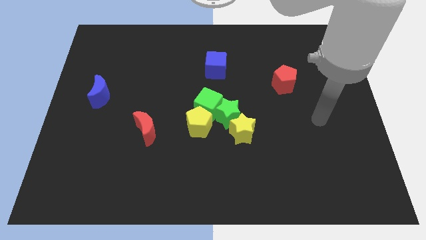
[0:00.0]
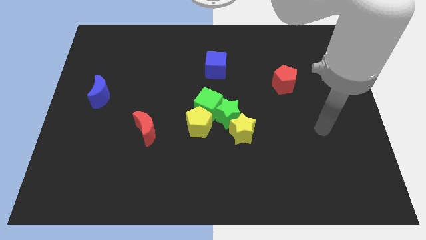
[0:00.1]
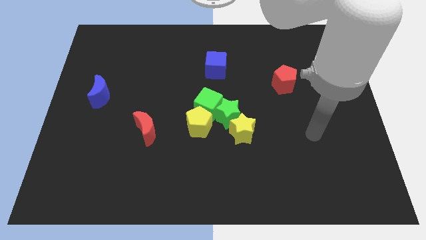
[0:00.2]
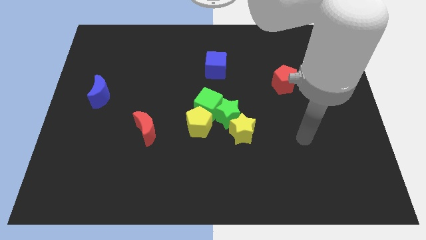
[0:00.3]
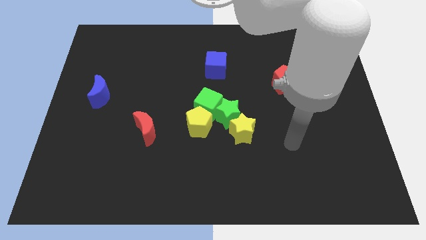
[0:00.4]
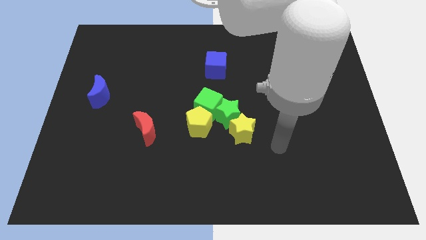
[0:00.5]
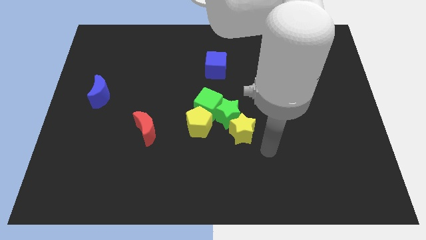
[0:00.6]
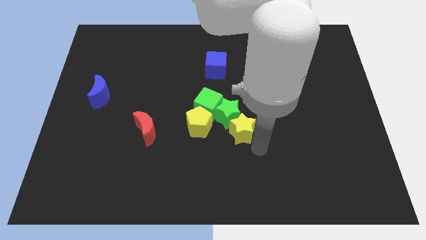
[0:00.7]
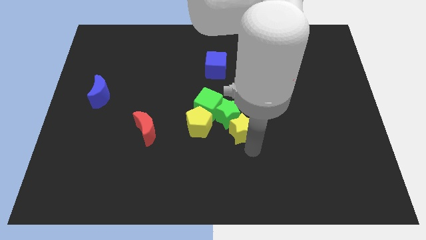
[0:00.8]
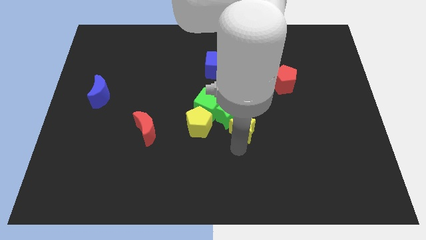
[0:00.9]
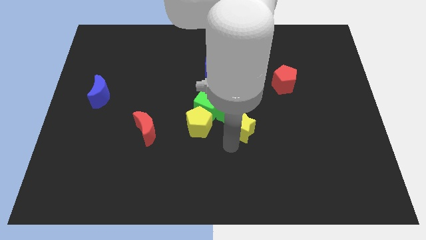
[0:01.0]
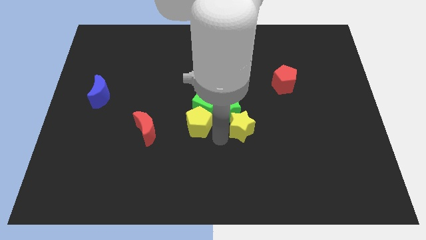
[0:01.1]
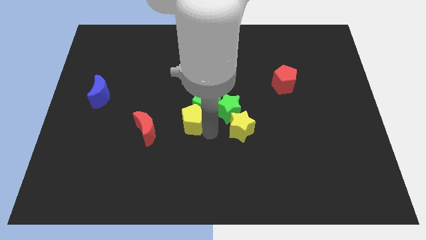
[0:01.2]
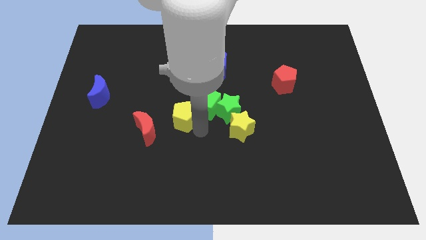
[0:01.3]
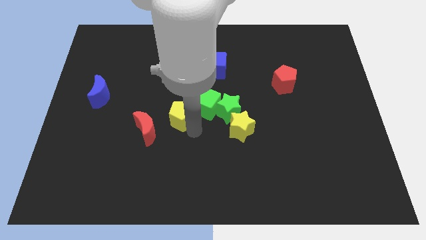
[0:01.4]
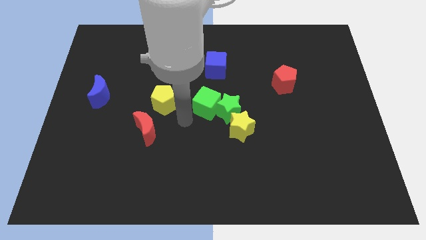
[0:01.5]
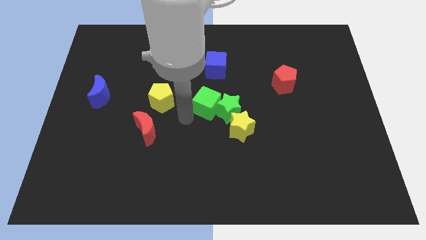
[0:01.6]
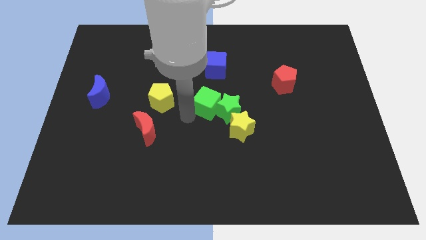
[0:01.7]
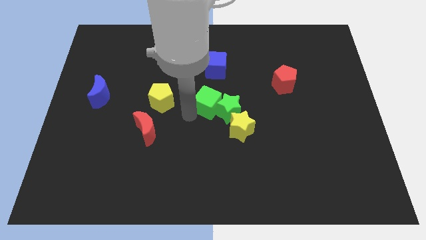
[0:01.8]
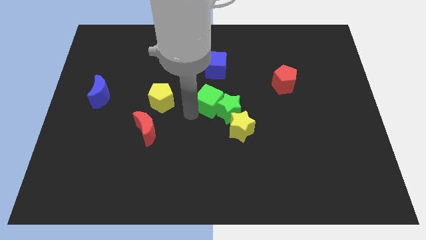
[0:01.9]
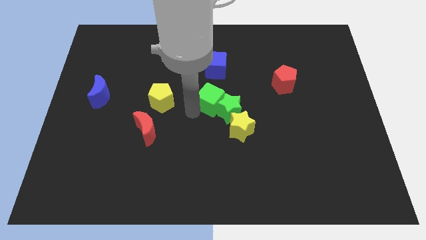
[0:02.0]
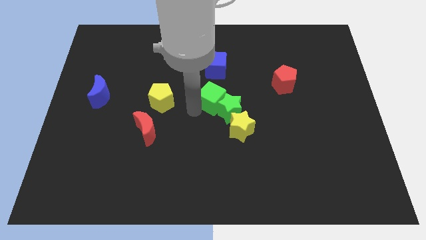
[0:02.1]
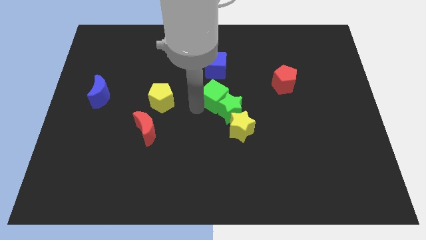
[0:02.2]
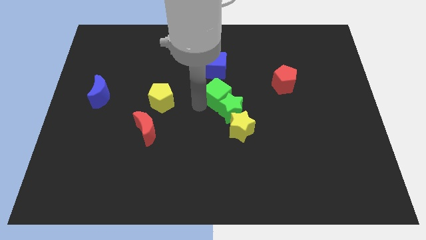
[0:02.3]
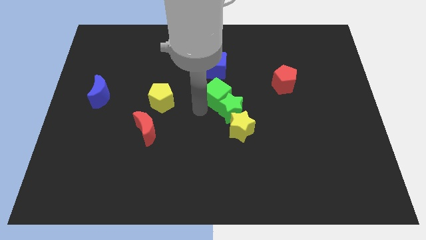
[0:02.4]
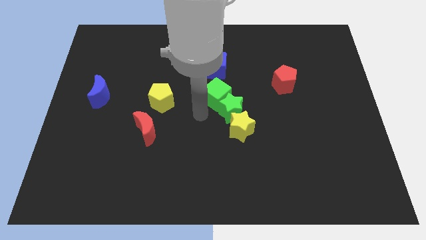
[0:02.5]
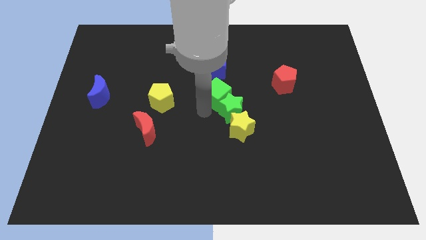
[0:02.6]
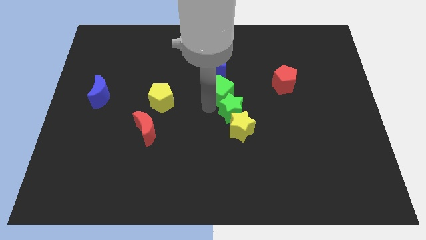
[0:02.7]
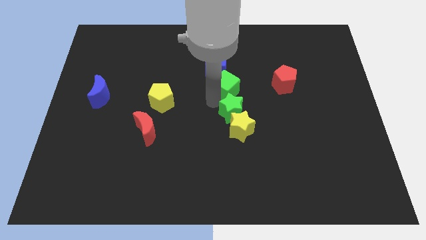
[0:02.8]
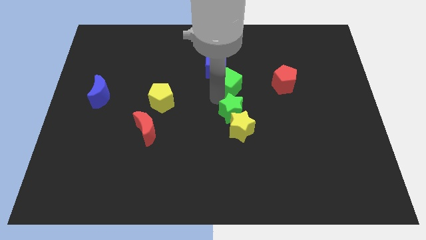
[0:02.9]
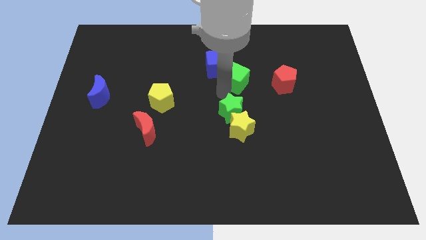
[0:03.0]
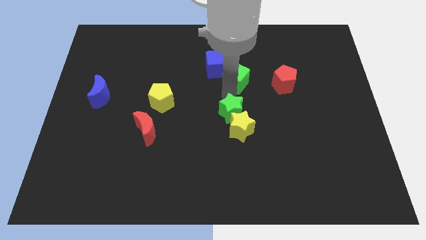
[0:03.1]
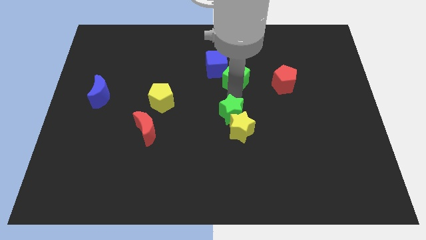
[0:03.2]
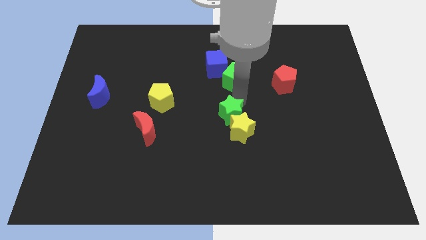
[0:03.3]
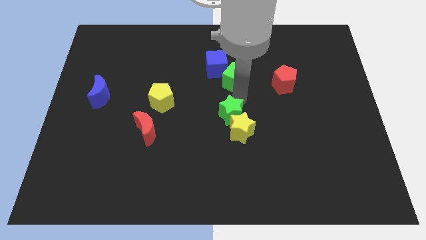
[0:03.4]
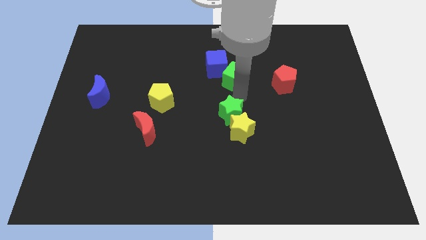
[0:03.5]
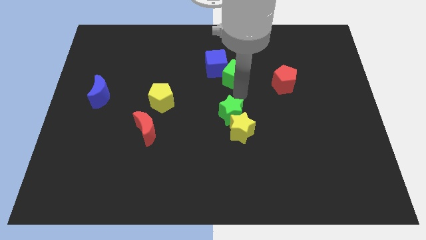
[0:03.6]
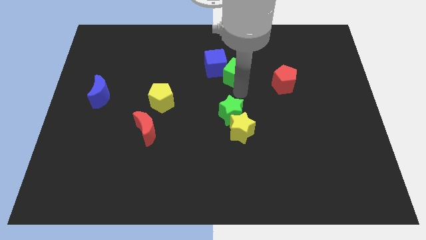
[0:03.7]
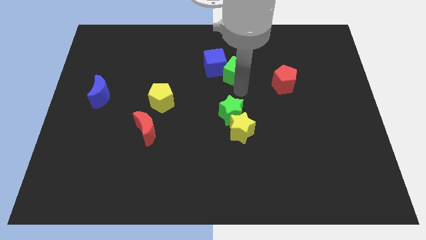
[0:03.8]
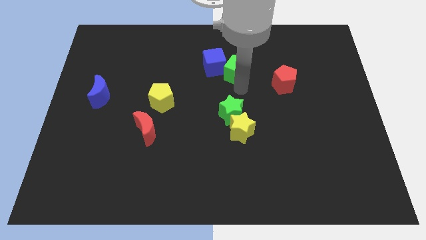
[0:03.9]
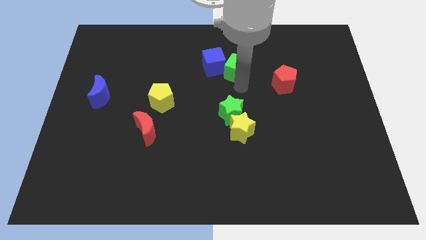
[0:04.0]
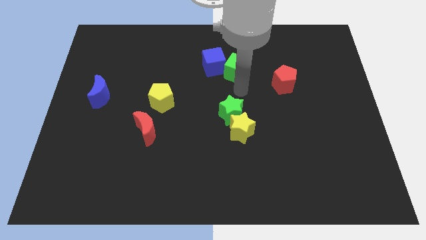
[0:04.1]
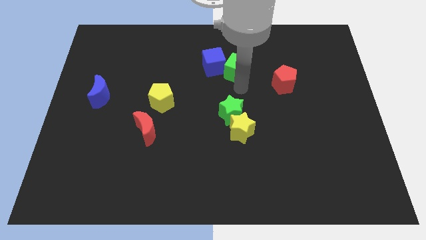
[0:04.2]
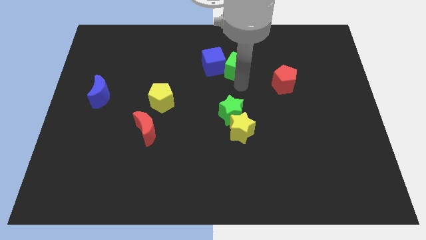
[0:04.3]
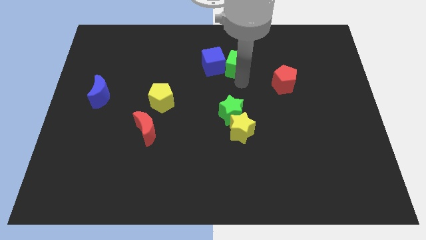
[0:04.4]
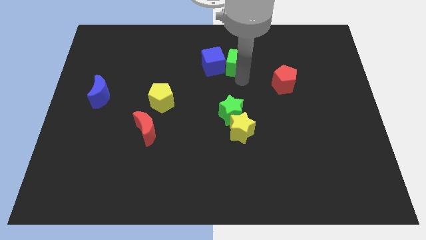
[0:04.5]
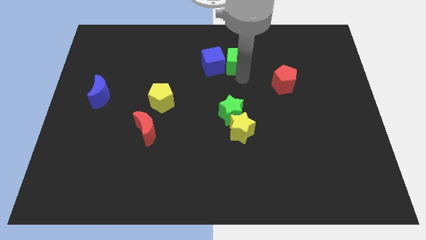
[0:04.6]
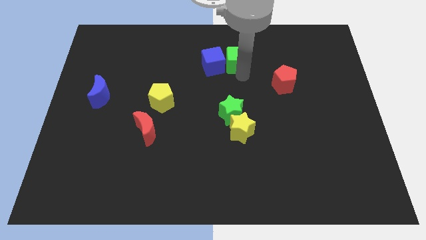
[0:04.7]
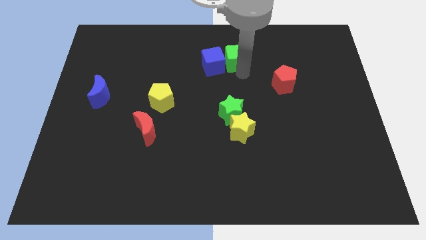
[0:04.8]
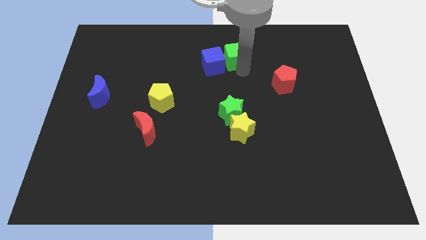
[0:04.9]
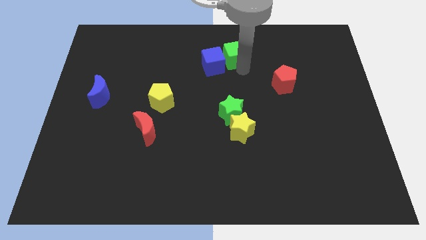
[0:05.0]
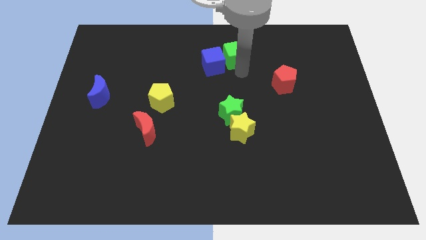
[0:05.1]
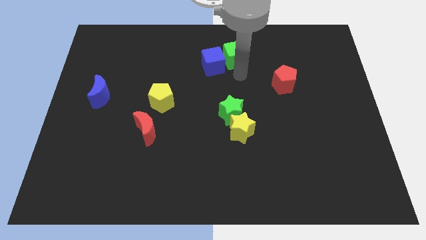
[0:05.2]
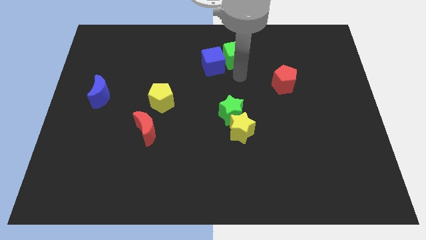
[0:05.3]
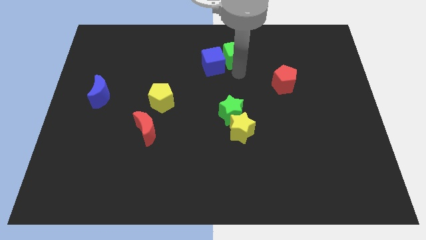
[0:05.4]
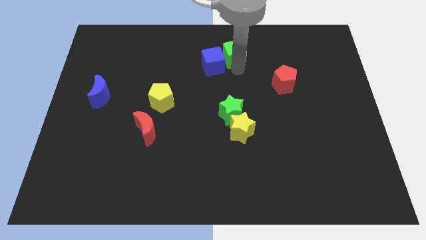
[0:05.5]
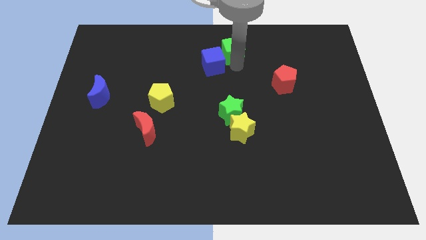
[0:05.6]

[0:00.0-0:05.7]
push the green cube to the top

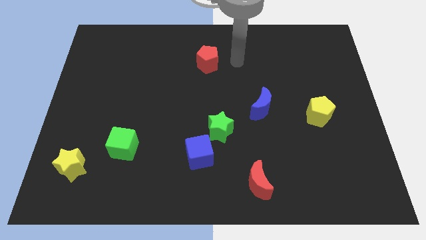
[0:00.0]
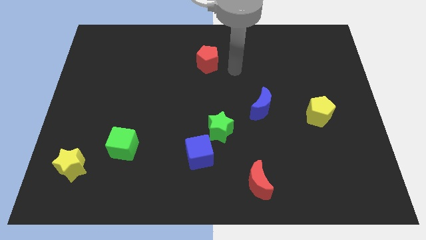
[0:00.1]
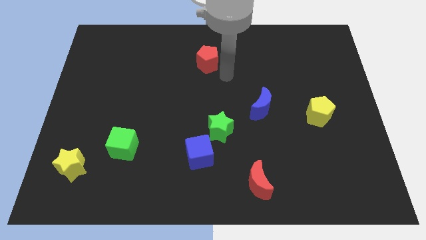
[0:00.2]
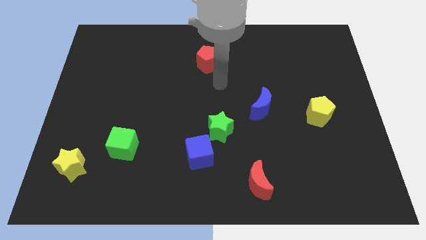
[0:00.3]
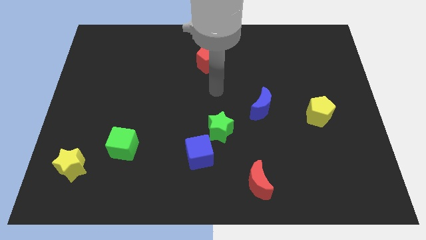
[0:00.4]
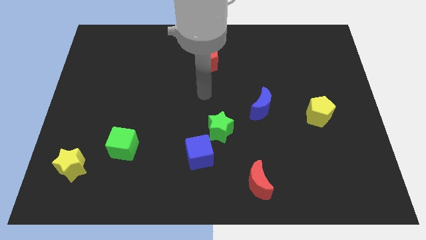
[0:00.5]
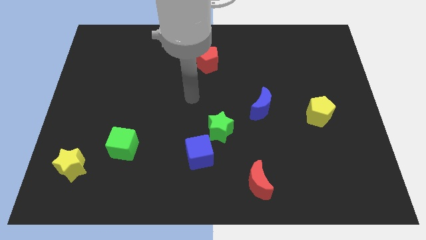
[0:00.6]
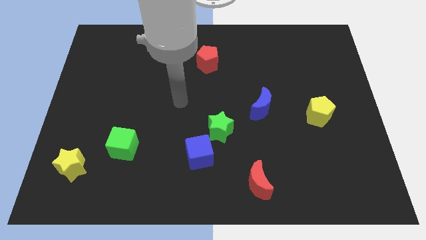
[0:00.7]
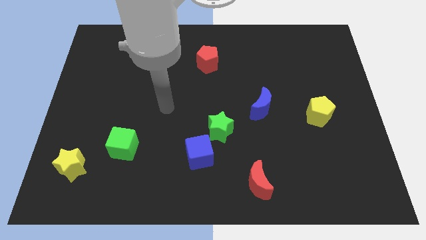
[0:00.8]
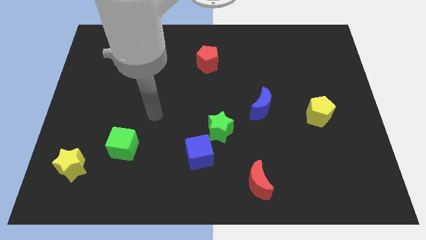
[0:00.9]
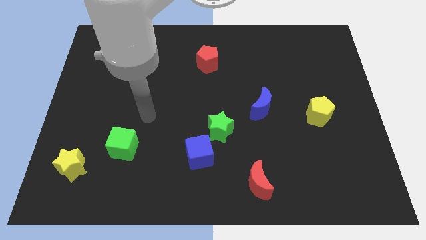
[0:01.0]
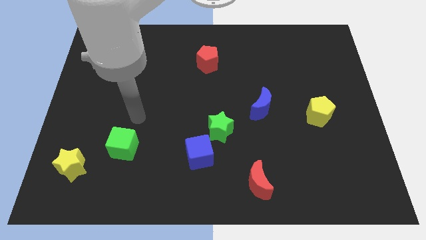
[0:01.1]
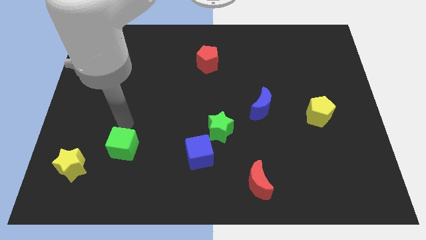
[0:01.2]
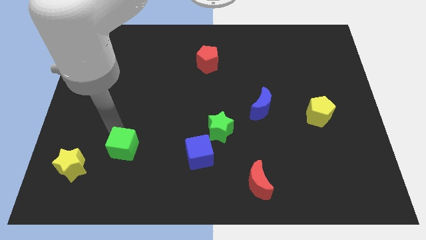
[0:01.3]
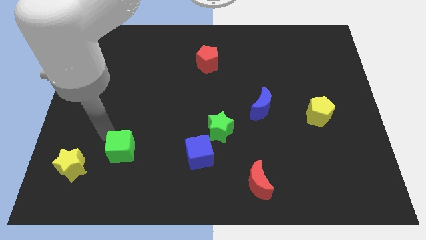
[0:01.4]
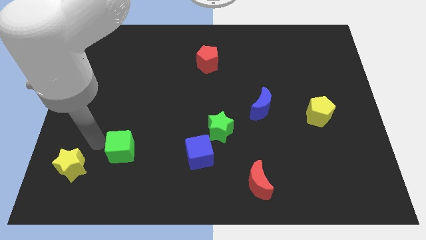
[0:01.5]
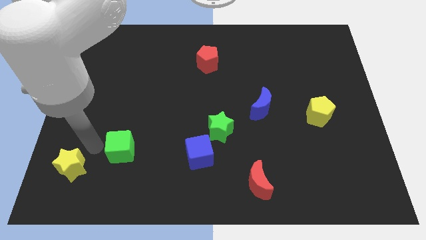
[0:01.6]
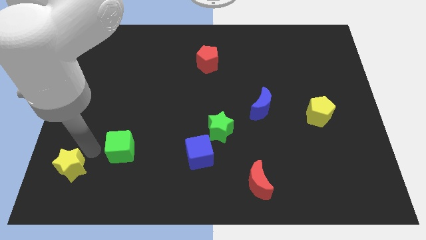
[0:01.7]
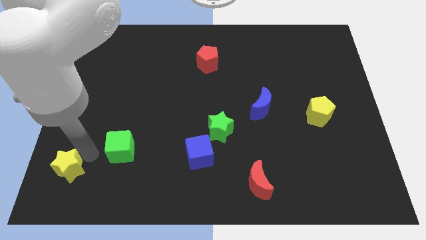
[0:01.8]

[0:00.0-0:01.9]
put the yellow star to the lower left corner
